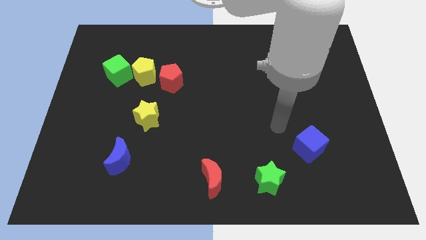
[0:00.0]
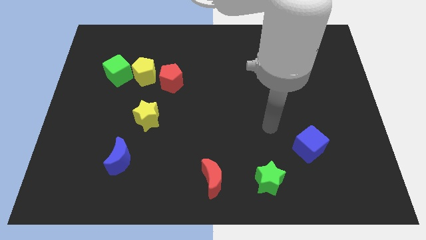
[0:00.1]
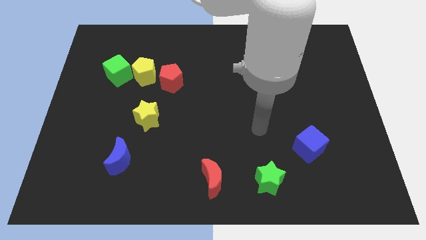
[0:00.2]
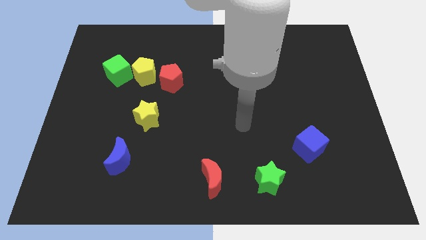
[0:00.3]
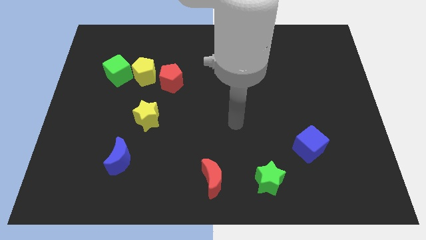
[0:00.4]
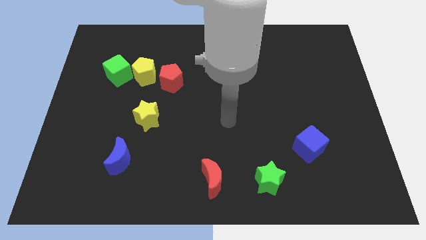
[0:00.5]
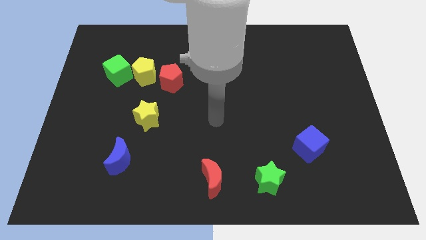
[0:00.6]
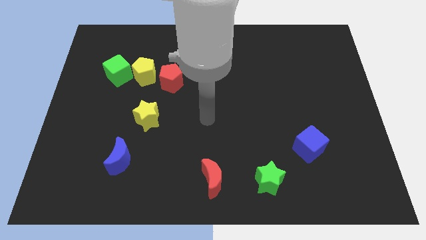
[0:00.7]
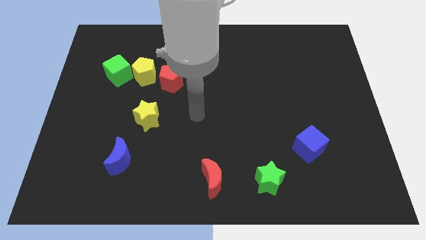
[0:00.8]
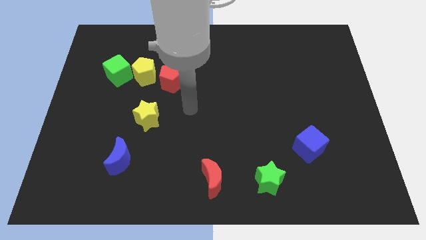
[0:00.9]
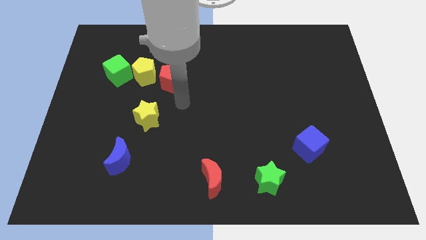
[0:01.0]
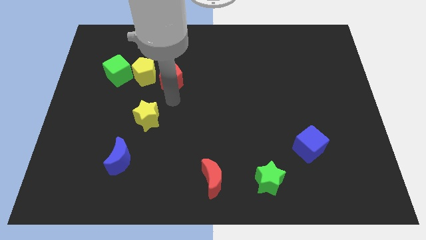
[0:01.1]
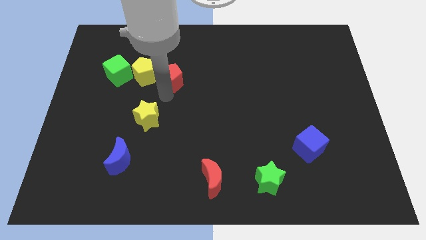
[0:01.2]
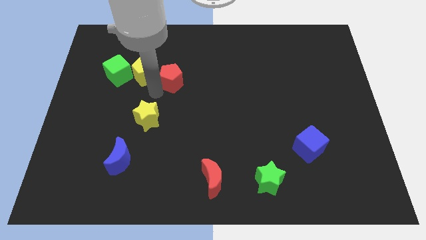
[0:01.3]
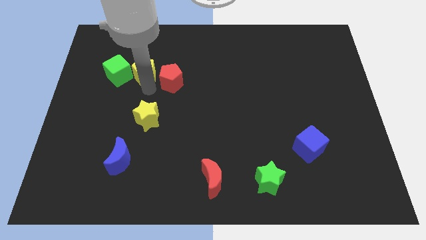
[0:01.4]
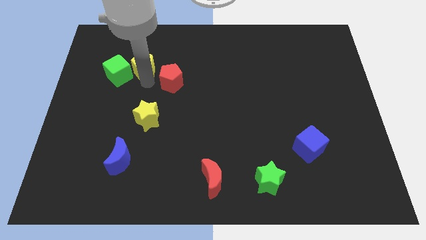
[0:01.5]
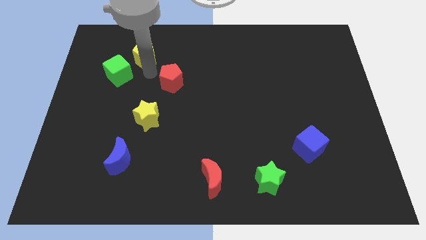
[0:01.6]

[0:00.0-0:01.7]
move the red pentagon away from the yellow pentagon

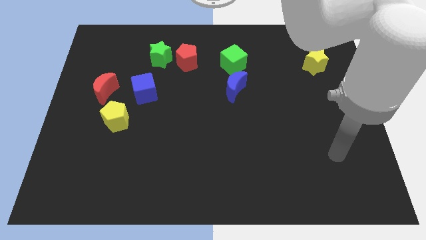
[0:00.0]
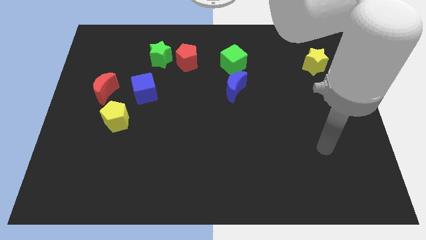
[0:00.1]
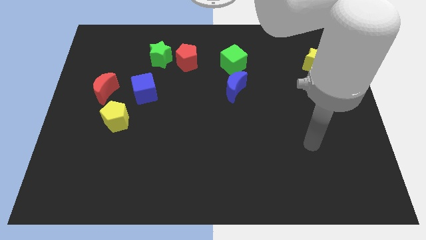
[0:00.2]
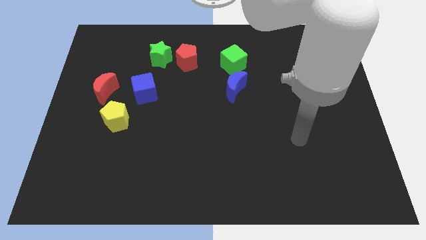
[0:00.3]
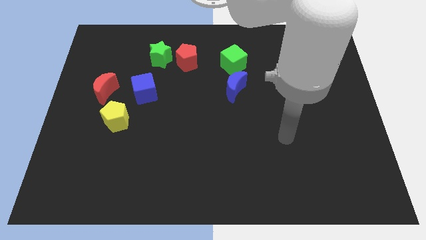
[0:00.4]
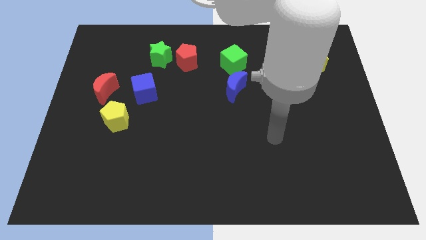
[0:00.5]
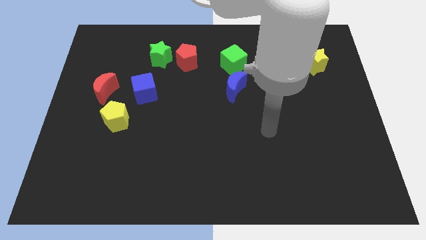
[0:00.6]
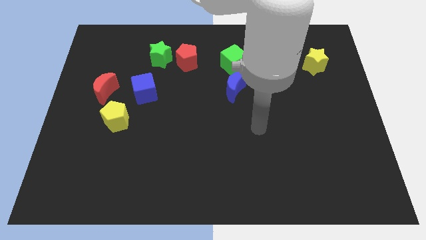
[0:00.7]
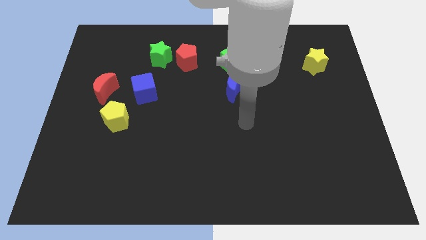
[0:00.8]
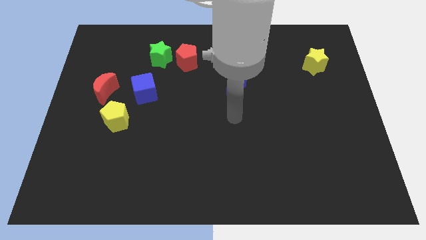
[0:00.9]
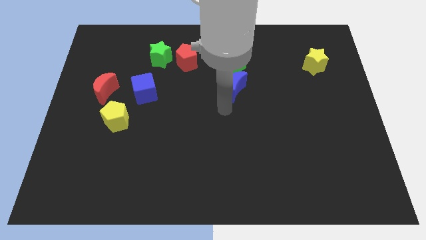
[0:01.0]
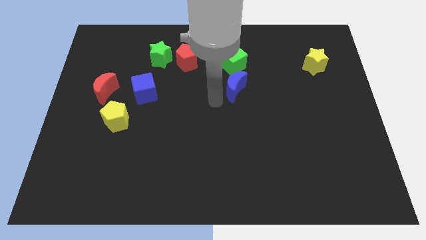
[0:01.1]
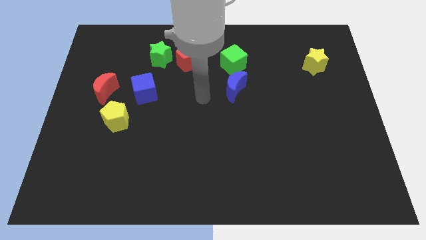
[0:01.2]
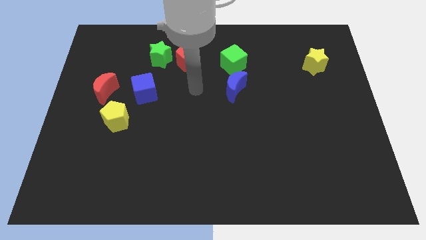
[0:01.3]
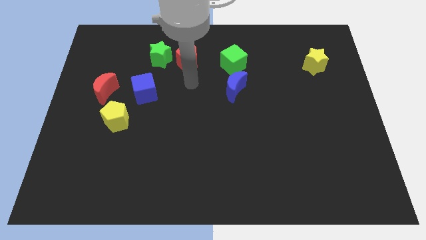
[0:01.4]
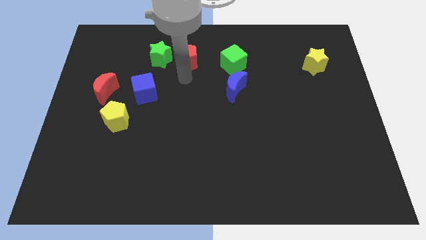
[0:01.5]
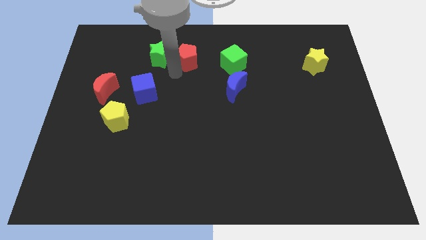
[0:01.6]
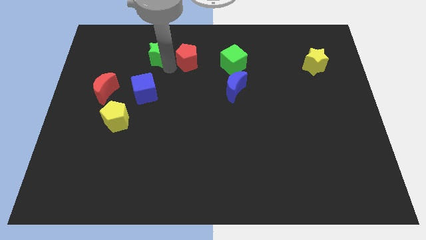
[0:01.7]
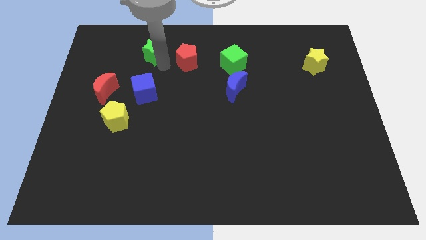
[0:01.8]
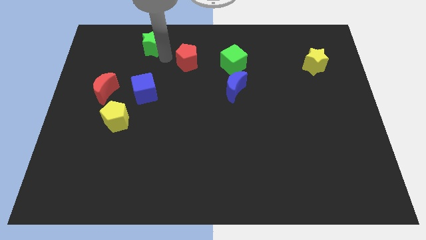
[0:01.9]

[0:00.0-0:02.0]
separate the red pentagon from the green star

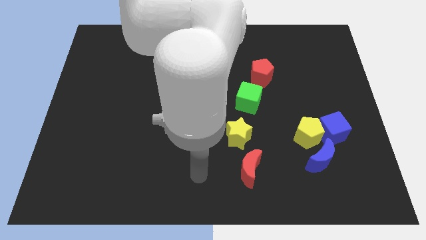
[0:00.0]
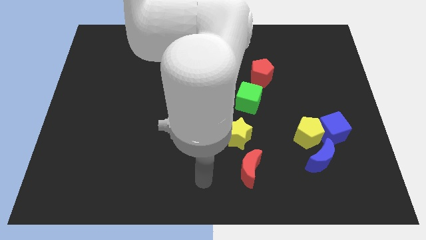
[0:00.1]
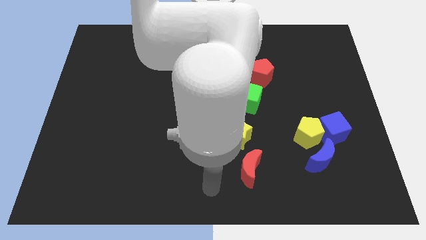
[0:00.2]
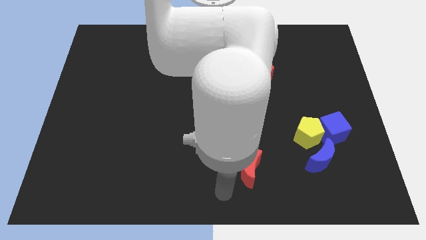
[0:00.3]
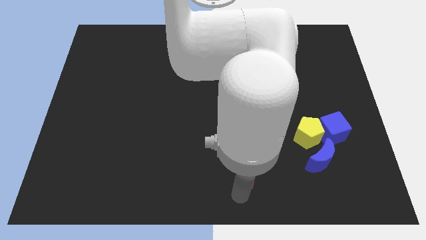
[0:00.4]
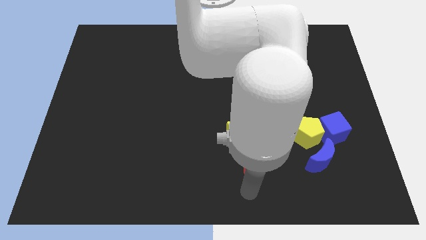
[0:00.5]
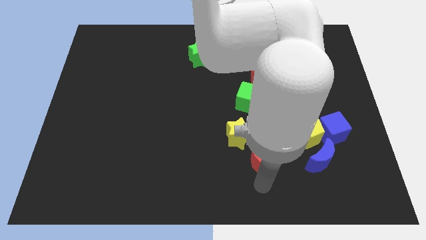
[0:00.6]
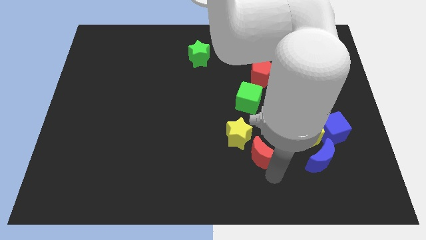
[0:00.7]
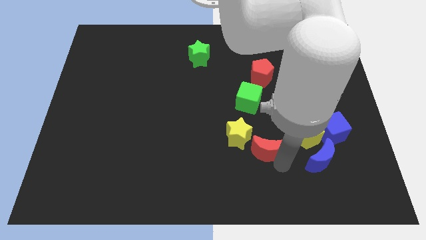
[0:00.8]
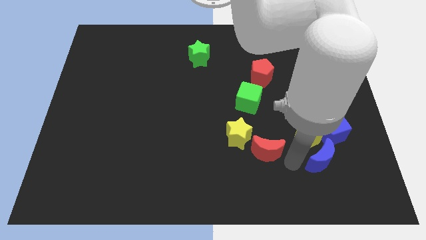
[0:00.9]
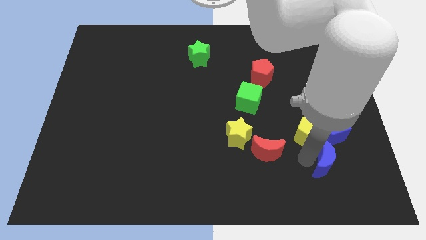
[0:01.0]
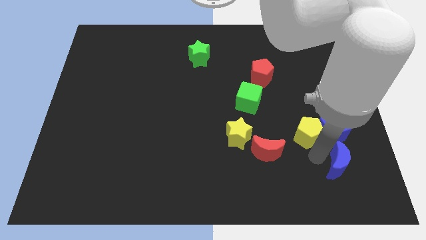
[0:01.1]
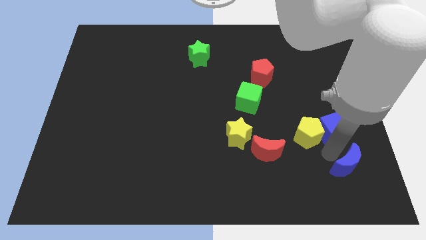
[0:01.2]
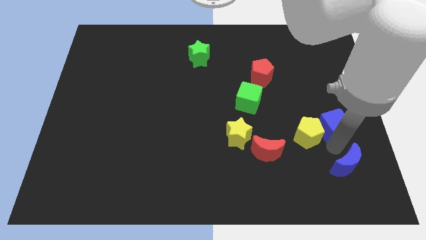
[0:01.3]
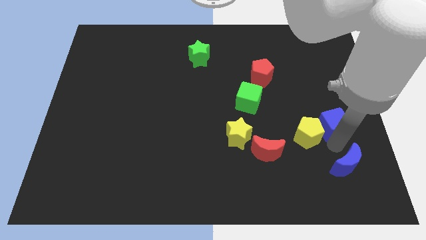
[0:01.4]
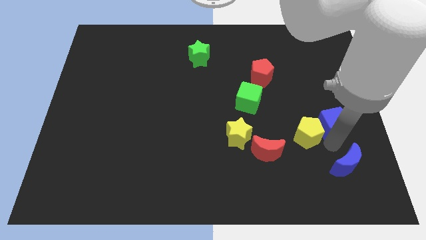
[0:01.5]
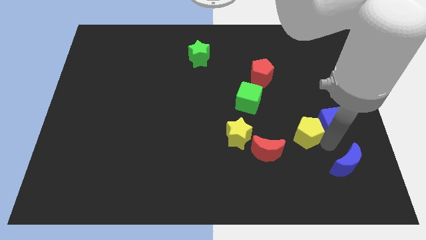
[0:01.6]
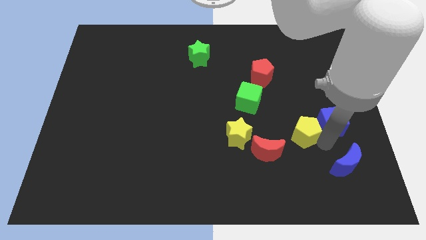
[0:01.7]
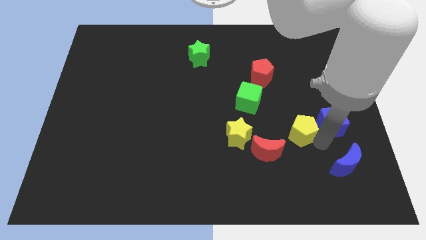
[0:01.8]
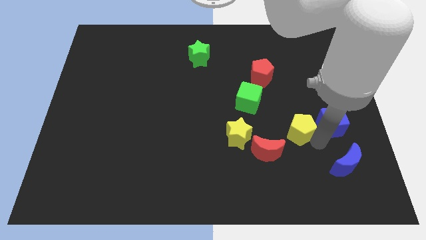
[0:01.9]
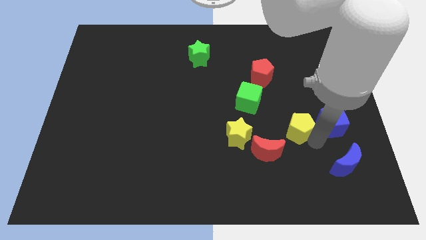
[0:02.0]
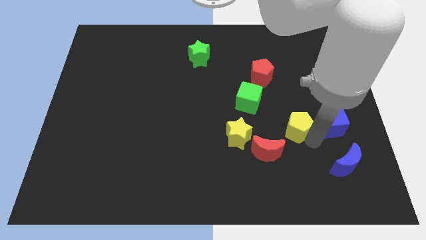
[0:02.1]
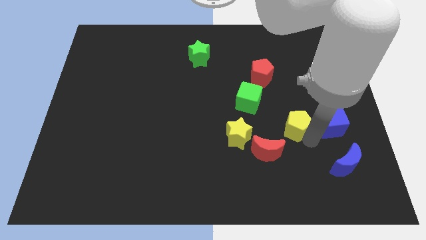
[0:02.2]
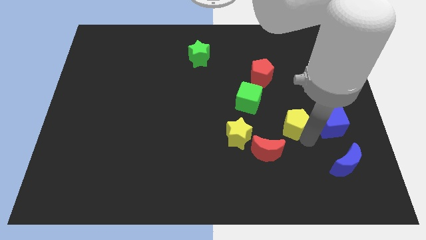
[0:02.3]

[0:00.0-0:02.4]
pull the yellow pentagon apart from the blue cube and blue moon

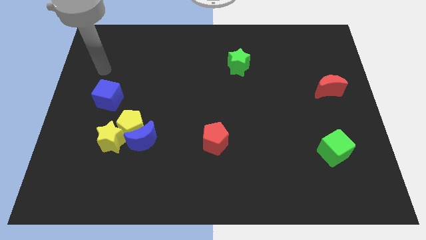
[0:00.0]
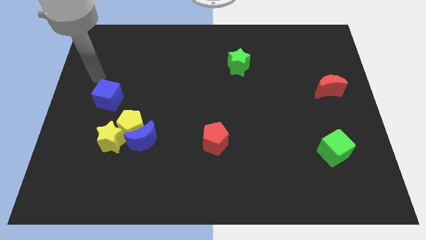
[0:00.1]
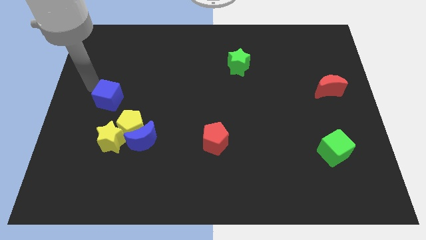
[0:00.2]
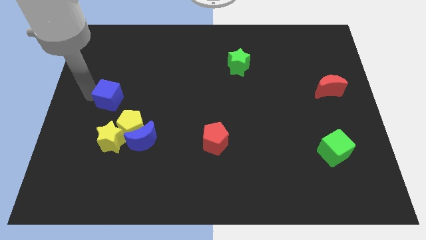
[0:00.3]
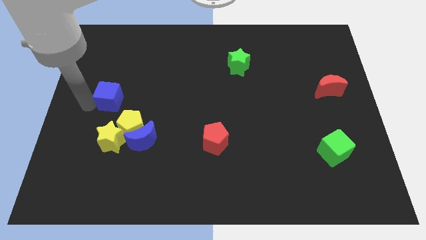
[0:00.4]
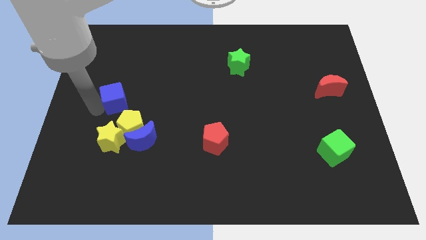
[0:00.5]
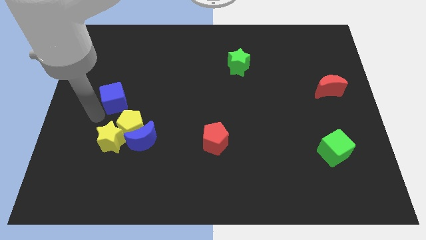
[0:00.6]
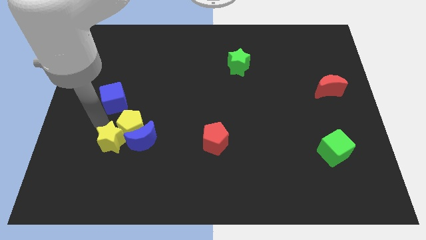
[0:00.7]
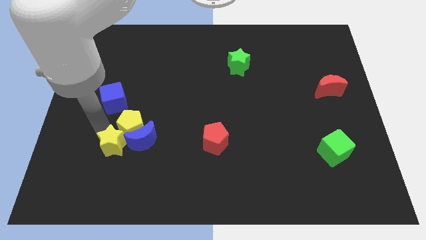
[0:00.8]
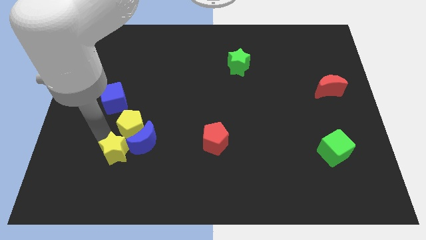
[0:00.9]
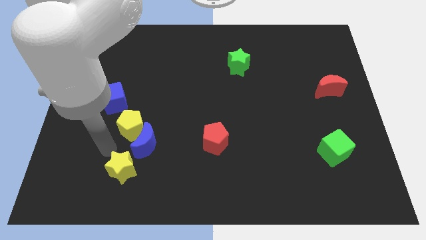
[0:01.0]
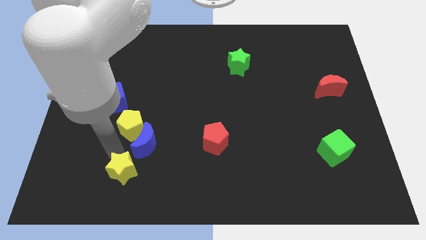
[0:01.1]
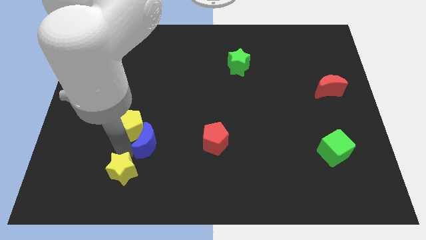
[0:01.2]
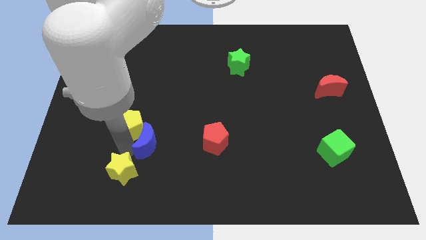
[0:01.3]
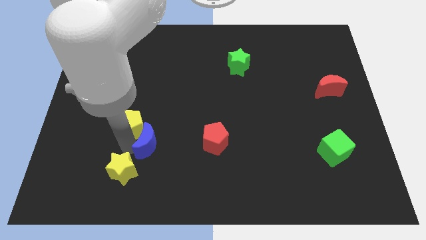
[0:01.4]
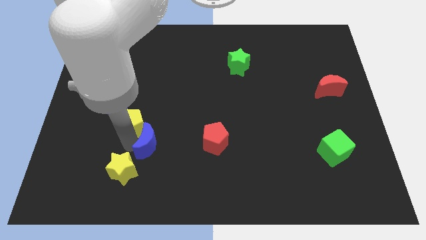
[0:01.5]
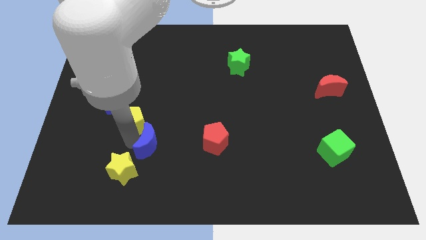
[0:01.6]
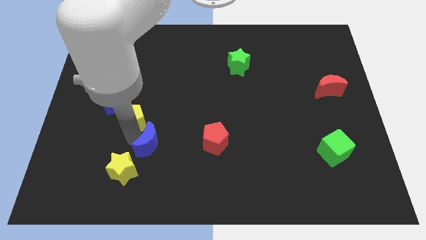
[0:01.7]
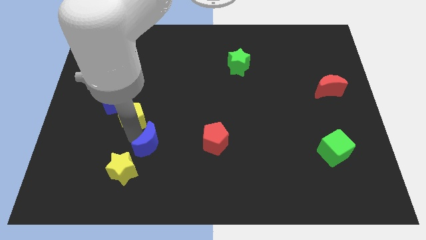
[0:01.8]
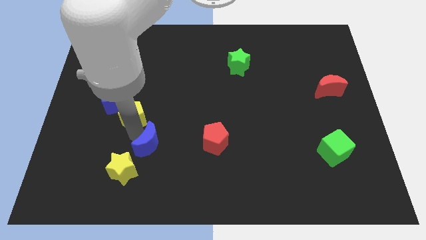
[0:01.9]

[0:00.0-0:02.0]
move the yellow pentagon away from the blue moon and yellow star

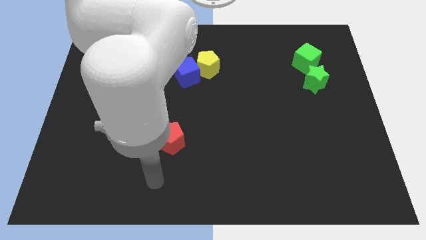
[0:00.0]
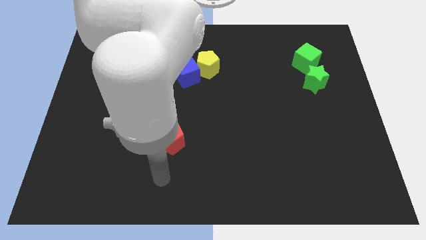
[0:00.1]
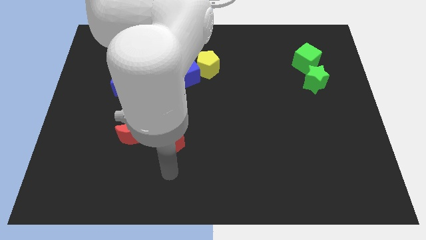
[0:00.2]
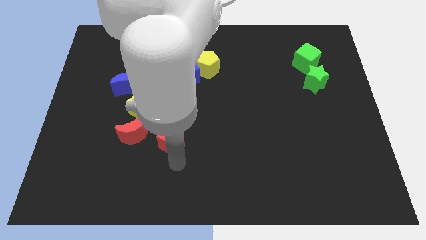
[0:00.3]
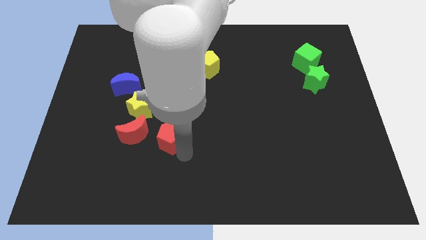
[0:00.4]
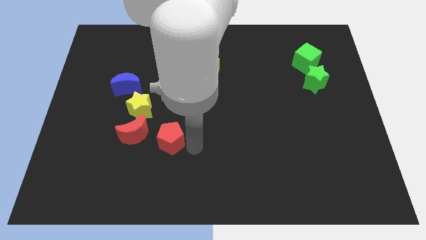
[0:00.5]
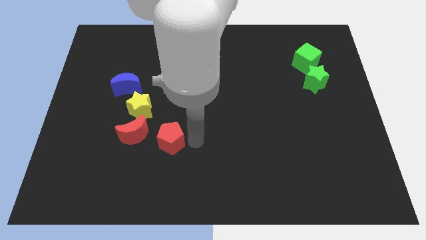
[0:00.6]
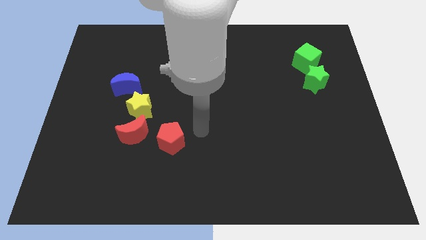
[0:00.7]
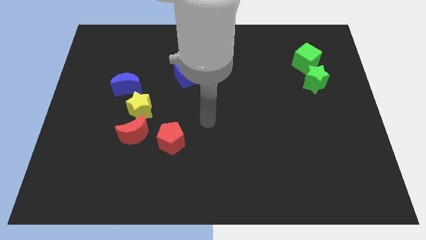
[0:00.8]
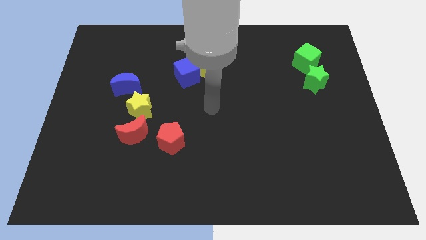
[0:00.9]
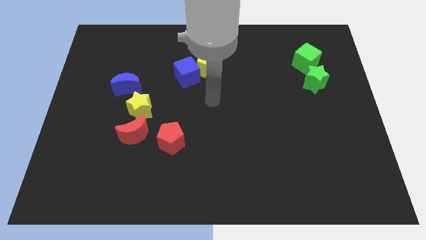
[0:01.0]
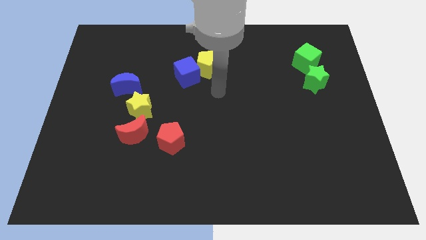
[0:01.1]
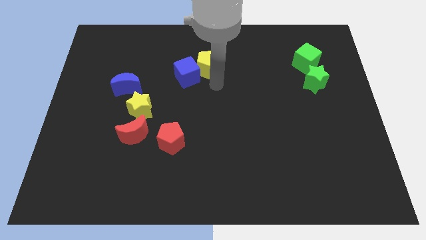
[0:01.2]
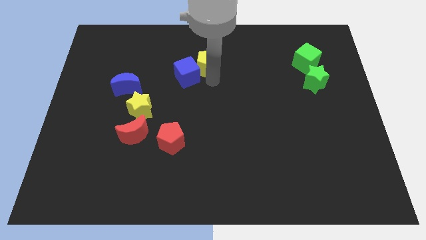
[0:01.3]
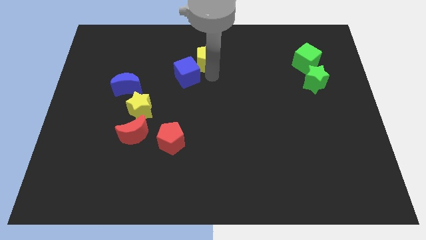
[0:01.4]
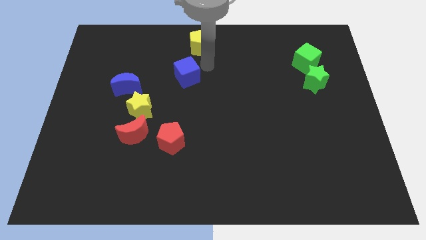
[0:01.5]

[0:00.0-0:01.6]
pull the blue cube apart from the yellow pentagon
